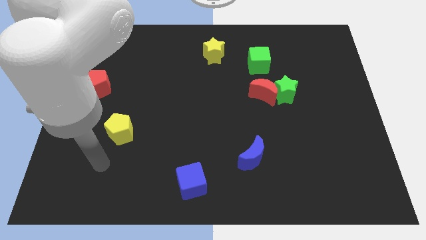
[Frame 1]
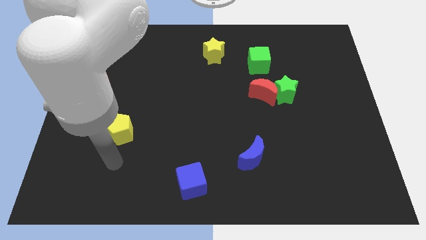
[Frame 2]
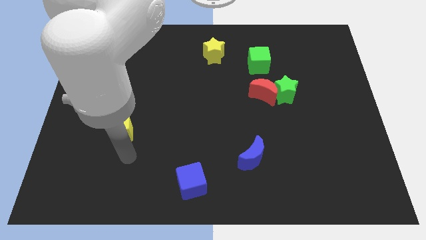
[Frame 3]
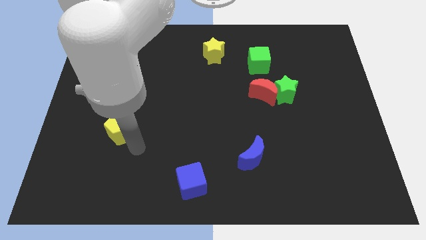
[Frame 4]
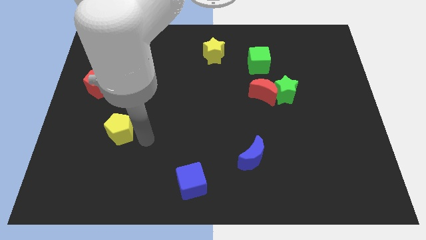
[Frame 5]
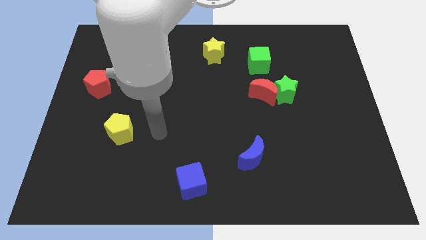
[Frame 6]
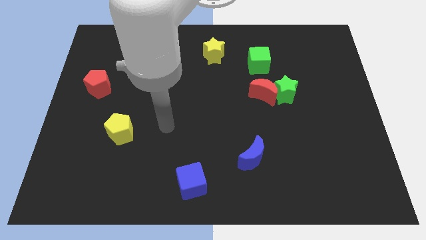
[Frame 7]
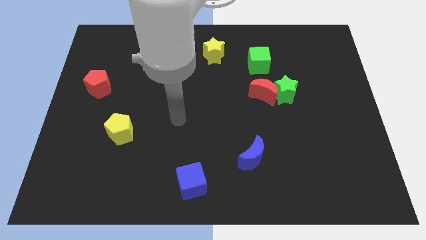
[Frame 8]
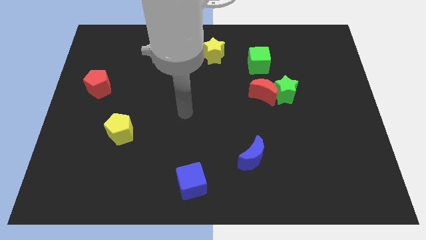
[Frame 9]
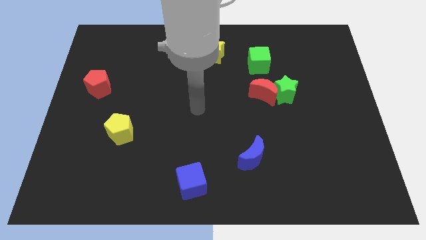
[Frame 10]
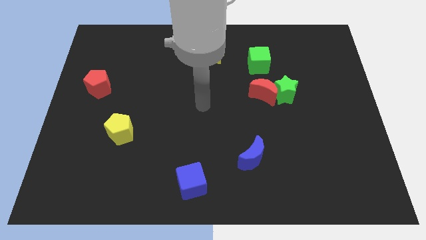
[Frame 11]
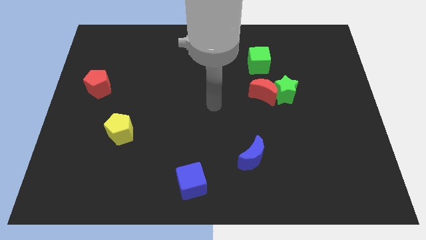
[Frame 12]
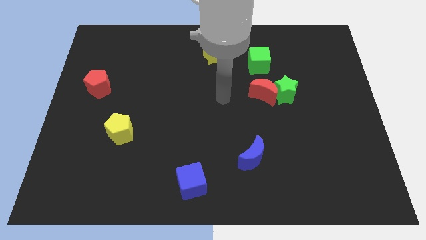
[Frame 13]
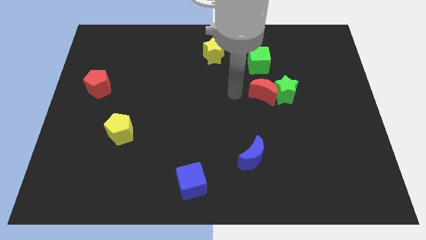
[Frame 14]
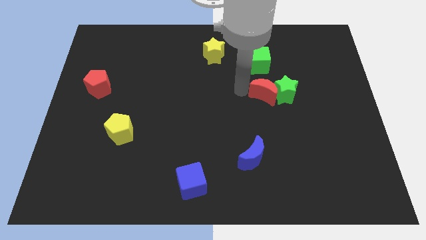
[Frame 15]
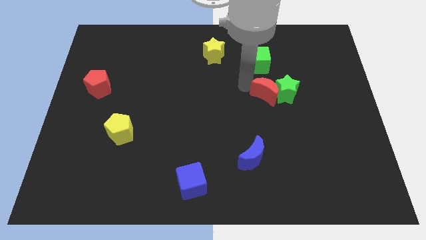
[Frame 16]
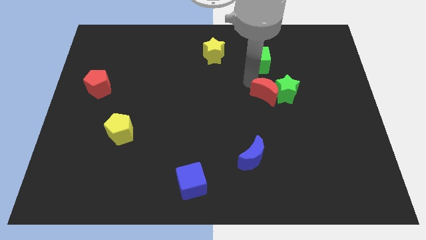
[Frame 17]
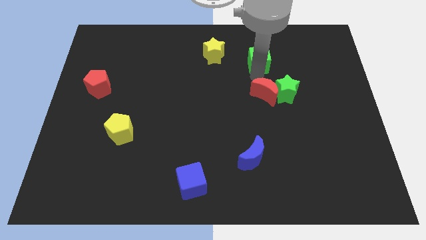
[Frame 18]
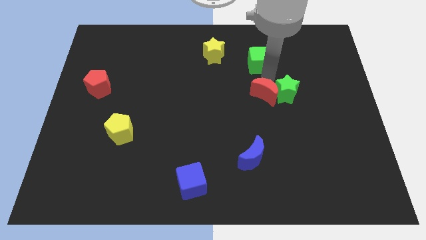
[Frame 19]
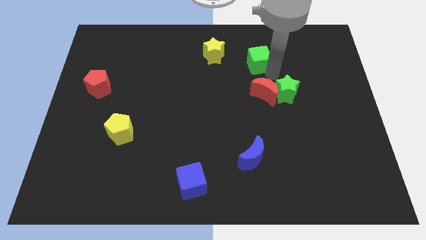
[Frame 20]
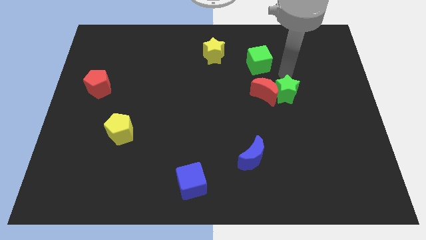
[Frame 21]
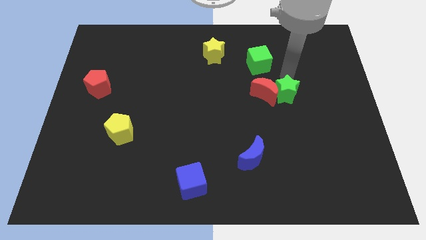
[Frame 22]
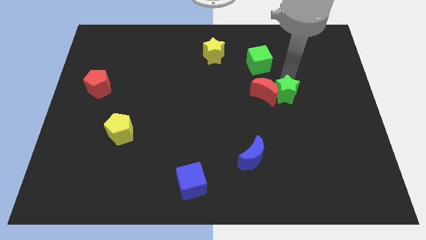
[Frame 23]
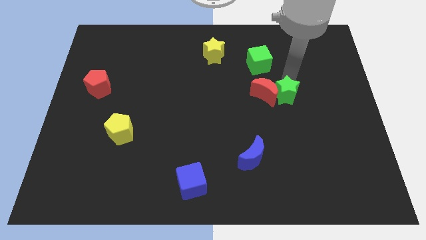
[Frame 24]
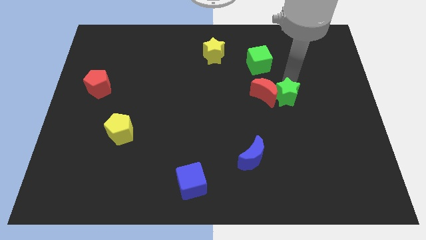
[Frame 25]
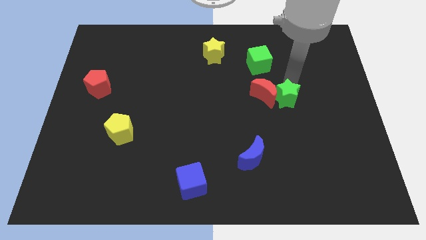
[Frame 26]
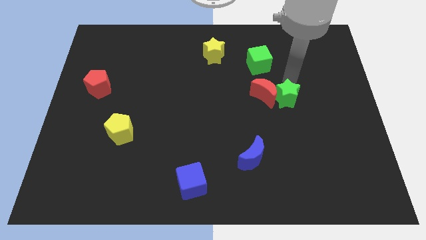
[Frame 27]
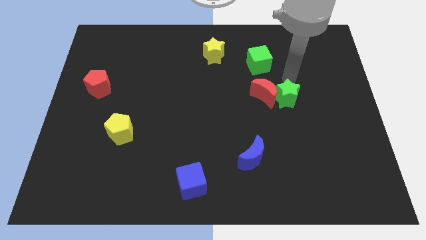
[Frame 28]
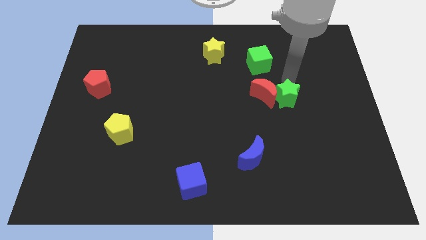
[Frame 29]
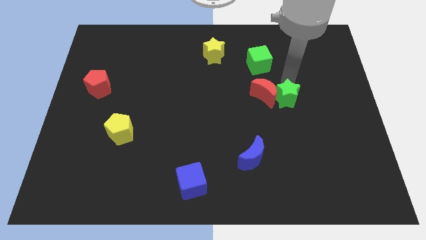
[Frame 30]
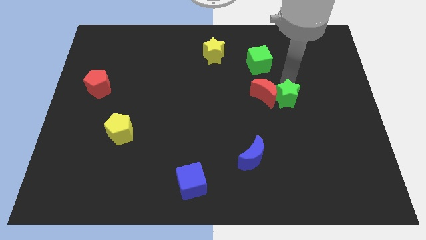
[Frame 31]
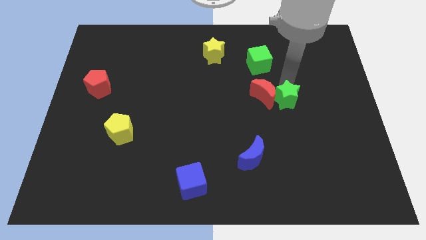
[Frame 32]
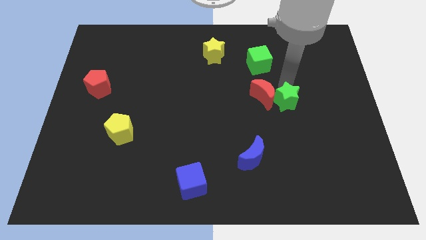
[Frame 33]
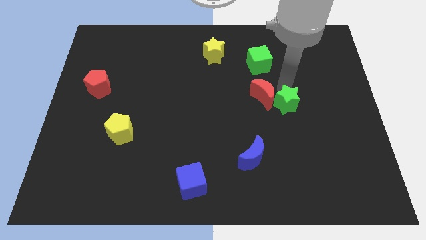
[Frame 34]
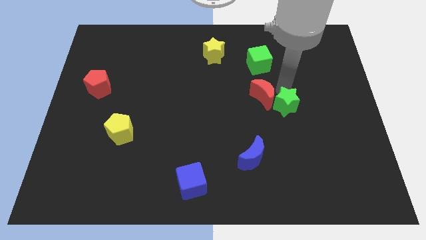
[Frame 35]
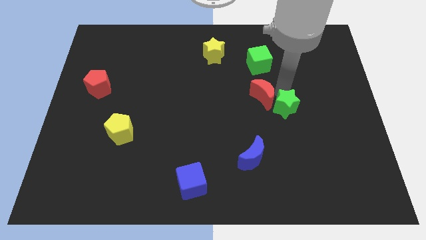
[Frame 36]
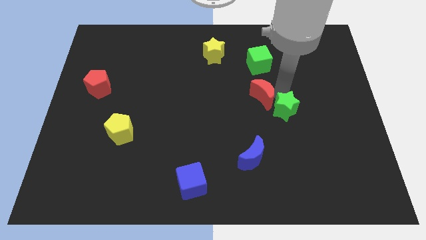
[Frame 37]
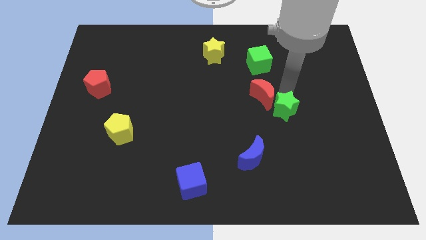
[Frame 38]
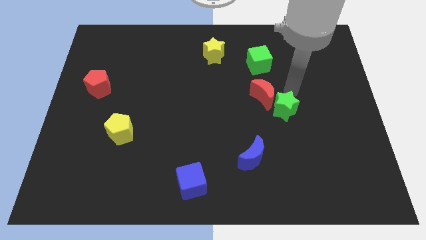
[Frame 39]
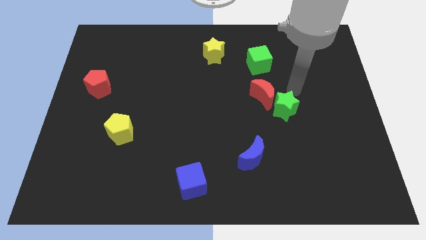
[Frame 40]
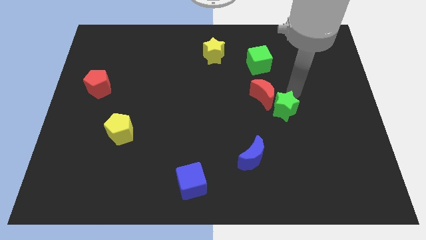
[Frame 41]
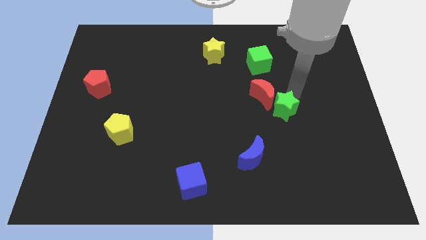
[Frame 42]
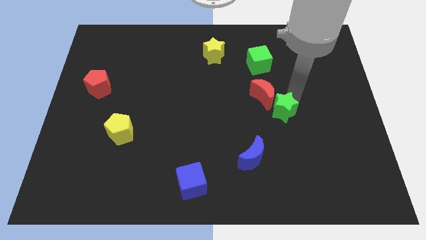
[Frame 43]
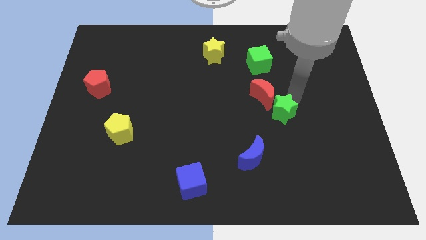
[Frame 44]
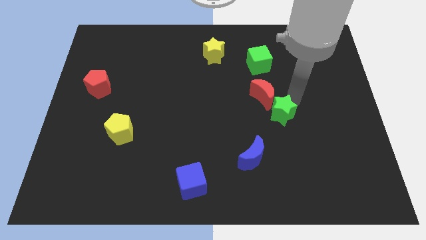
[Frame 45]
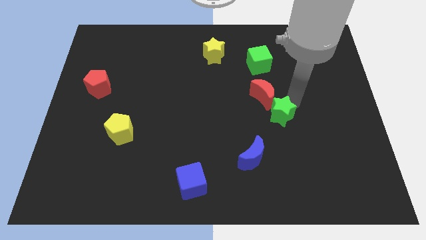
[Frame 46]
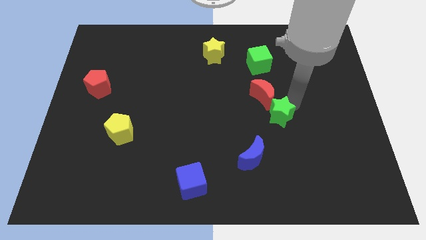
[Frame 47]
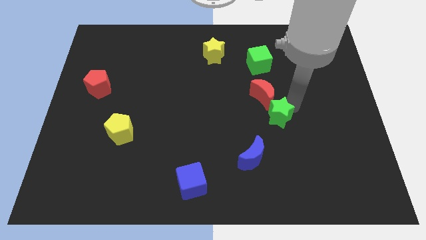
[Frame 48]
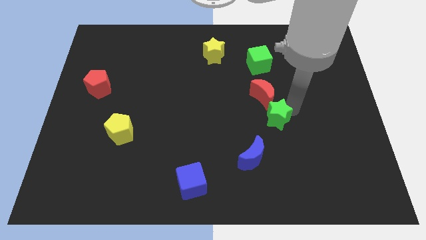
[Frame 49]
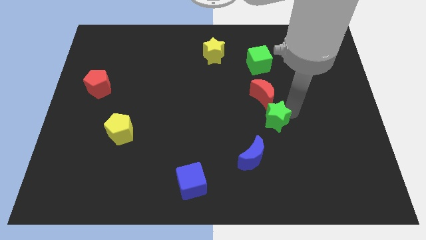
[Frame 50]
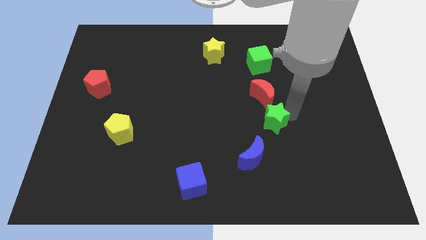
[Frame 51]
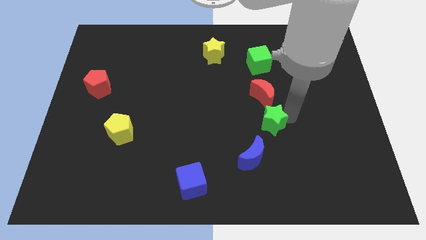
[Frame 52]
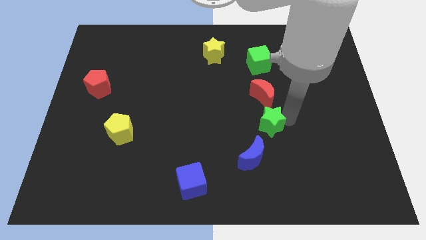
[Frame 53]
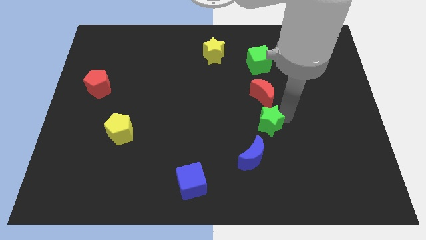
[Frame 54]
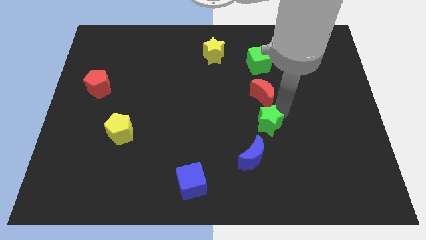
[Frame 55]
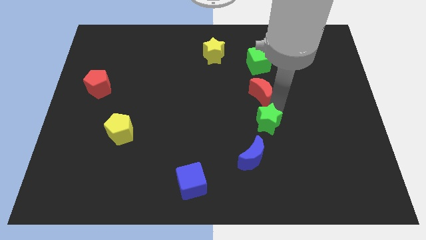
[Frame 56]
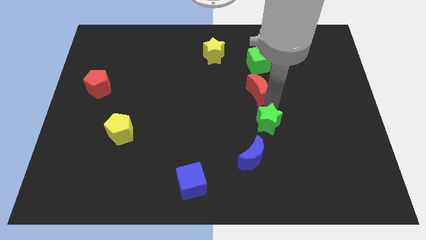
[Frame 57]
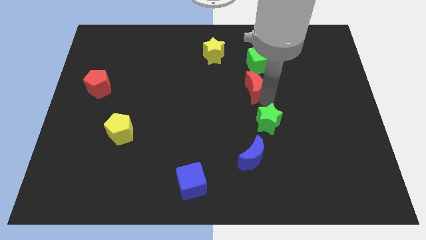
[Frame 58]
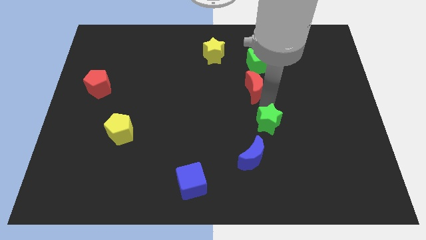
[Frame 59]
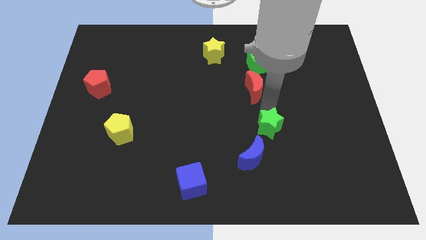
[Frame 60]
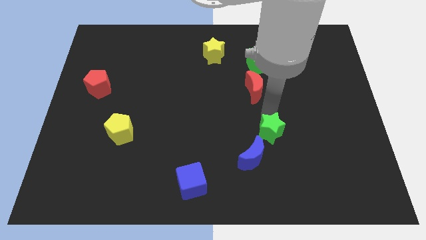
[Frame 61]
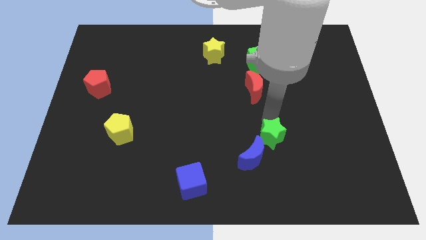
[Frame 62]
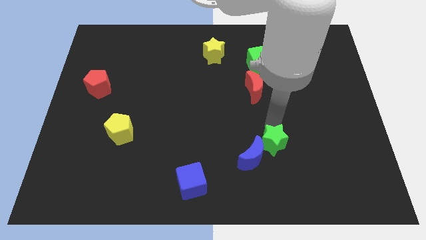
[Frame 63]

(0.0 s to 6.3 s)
push the green star to the blue moon

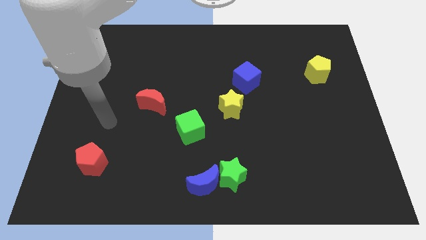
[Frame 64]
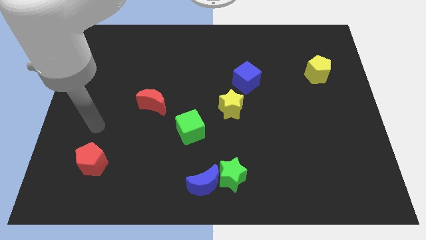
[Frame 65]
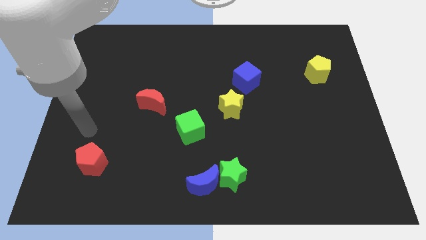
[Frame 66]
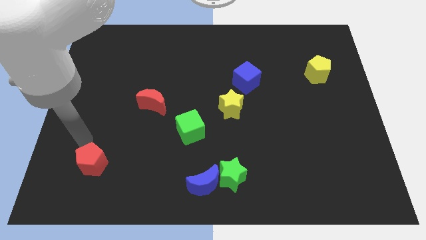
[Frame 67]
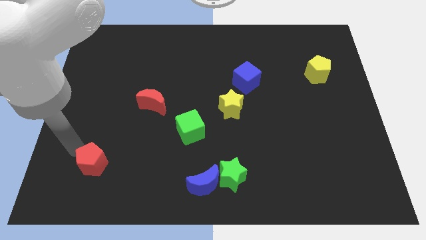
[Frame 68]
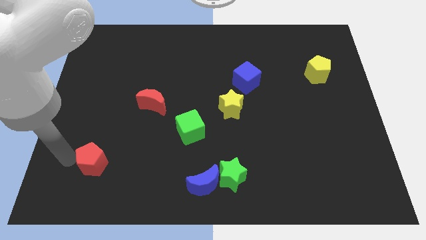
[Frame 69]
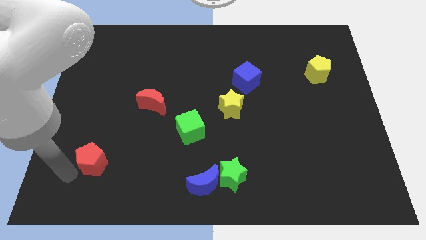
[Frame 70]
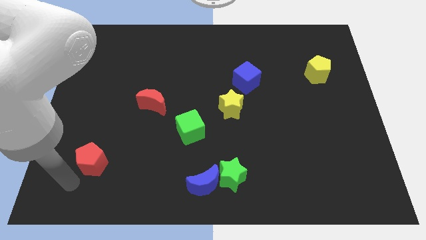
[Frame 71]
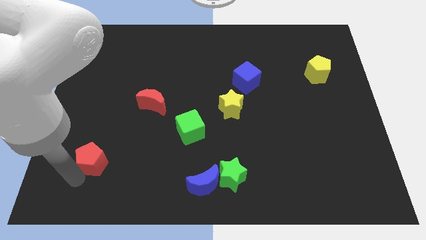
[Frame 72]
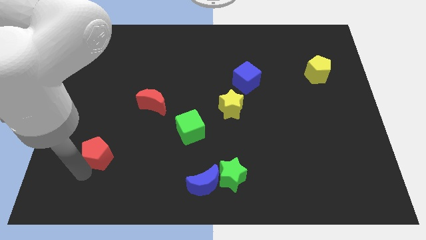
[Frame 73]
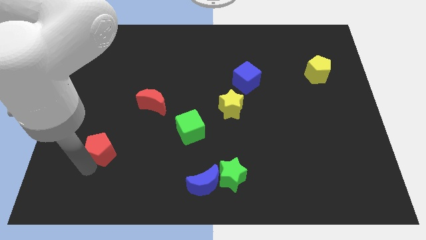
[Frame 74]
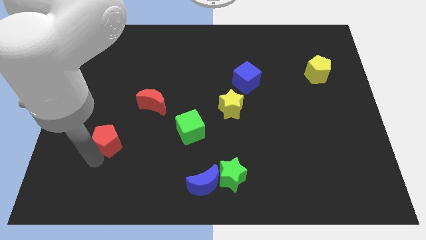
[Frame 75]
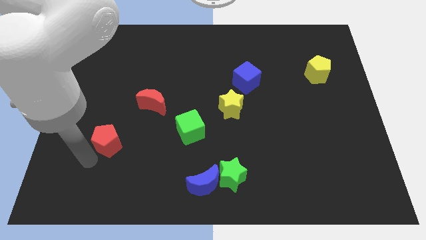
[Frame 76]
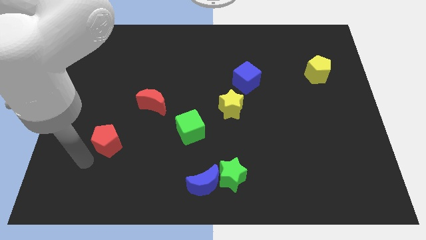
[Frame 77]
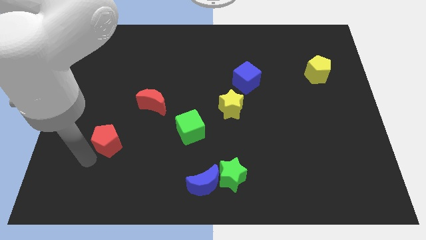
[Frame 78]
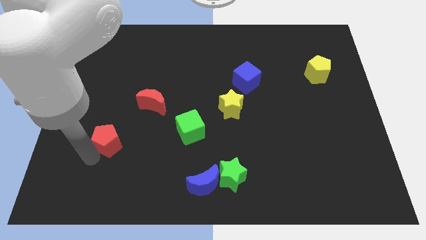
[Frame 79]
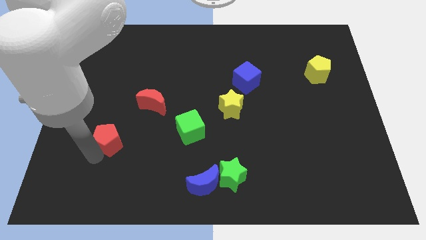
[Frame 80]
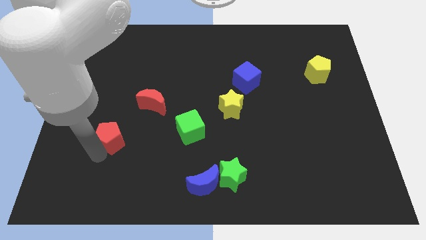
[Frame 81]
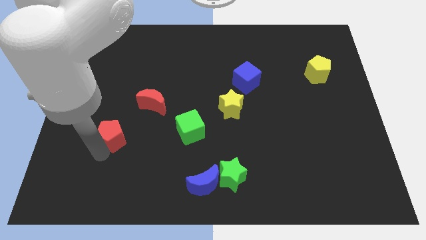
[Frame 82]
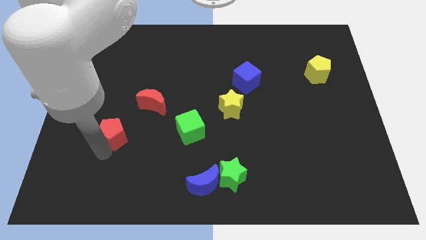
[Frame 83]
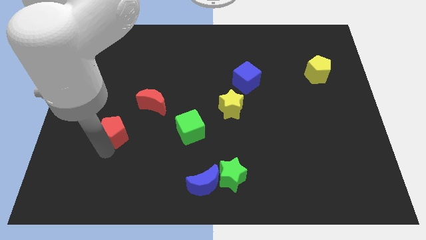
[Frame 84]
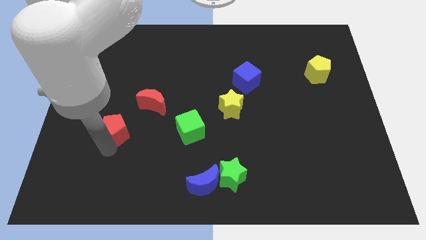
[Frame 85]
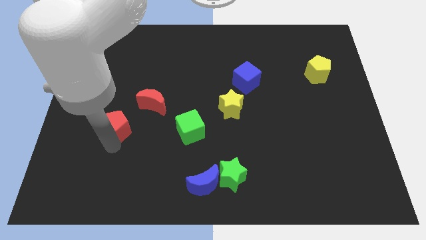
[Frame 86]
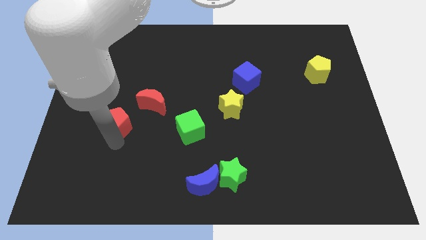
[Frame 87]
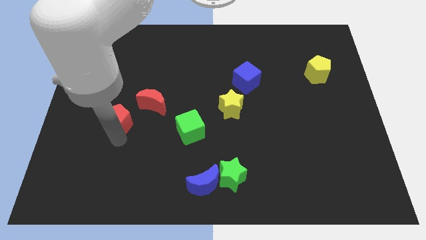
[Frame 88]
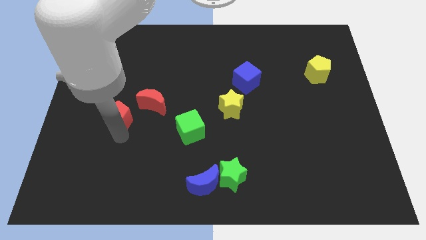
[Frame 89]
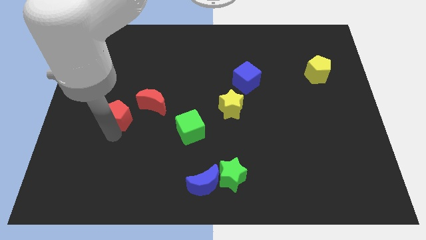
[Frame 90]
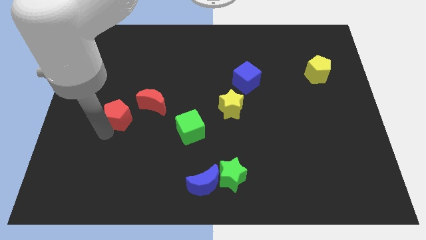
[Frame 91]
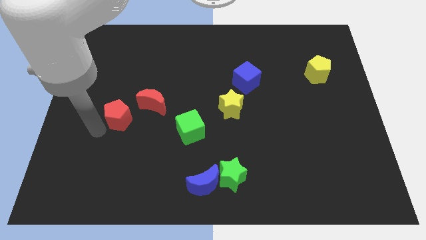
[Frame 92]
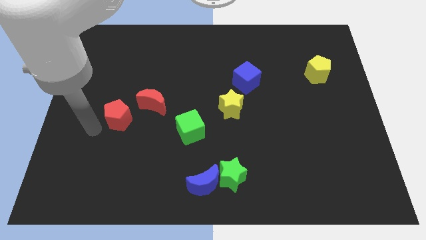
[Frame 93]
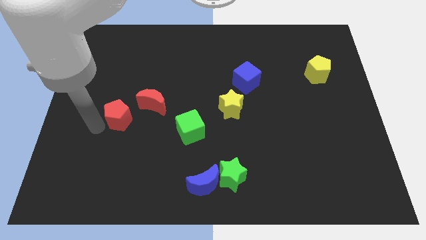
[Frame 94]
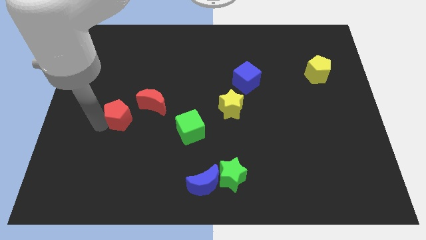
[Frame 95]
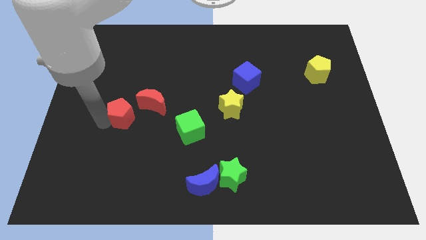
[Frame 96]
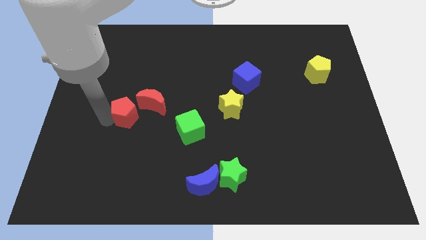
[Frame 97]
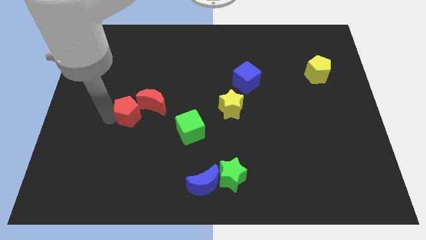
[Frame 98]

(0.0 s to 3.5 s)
push the red pentagon to the red moon
